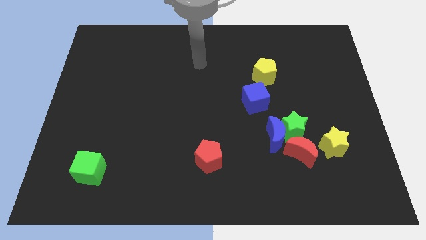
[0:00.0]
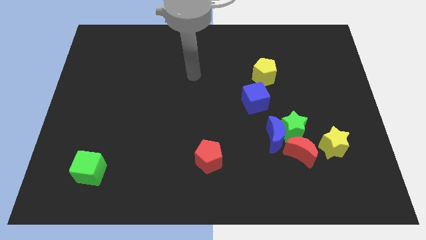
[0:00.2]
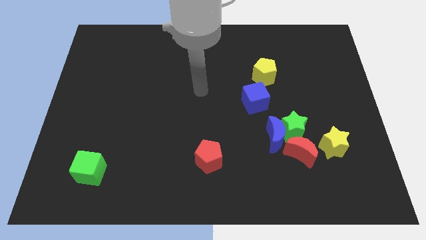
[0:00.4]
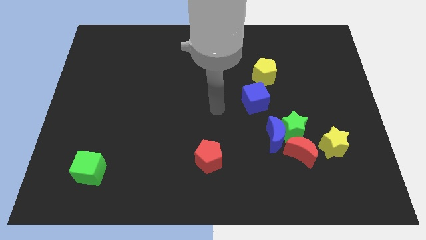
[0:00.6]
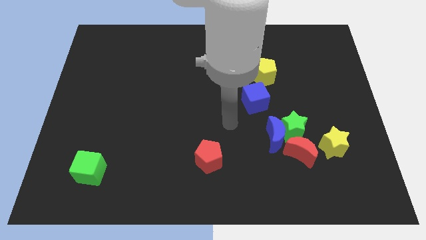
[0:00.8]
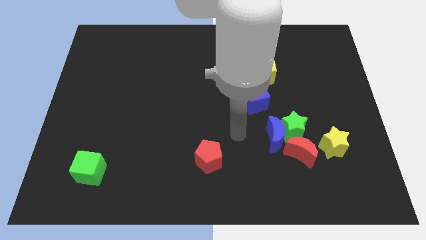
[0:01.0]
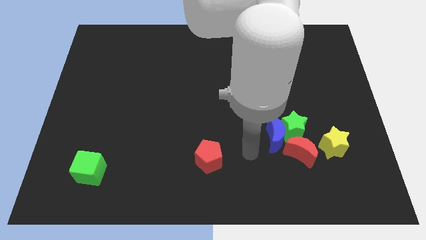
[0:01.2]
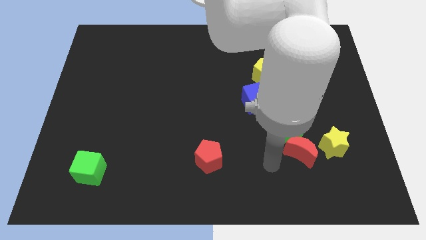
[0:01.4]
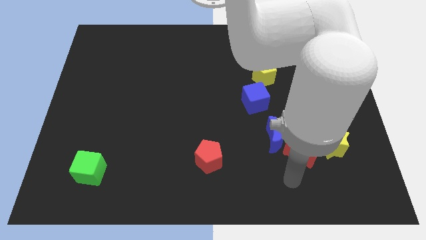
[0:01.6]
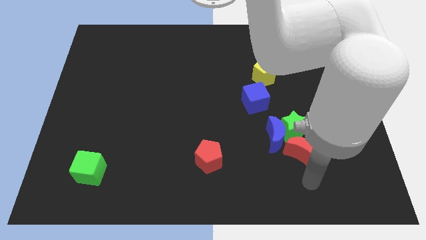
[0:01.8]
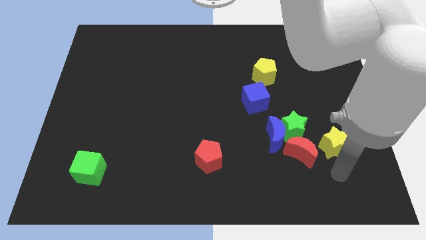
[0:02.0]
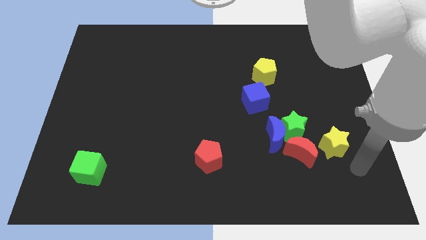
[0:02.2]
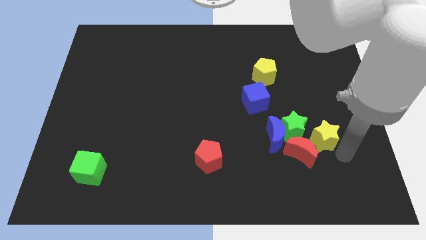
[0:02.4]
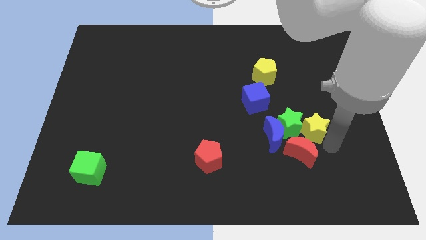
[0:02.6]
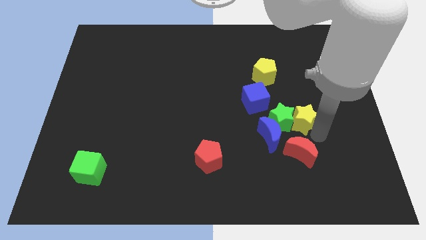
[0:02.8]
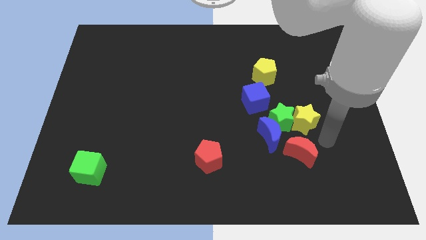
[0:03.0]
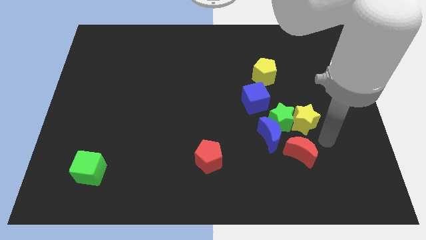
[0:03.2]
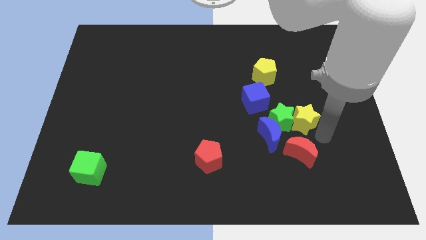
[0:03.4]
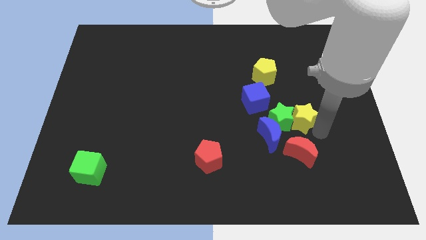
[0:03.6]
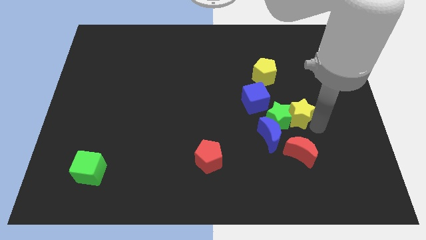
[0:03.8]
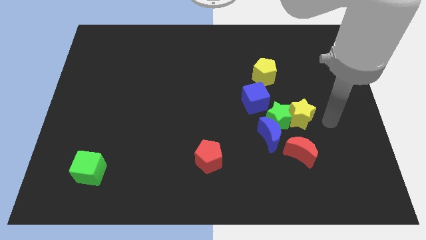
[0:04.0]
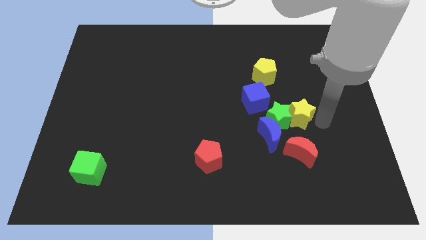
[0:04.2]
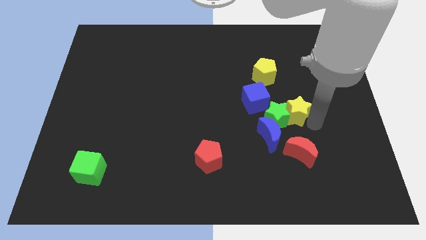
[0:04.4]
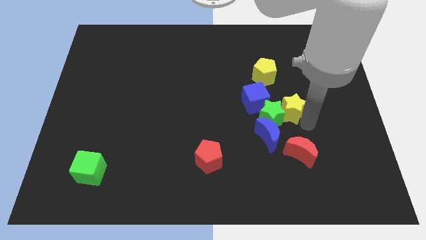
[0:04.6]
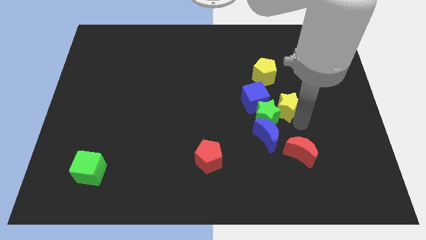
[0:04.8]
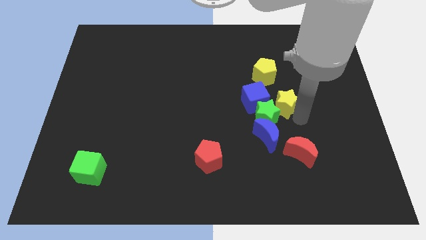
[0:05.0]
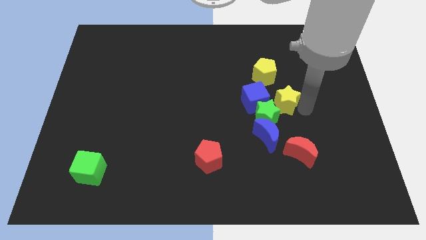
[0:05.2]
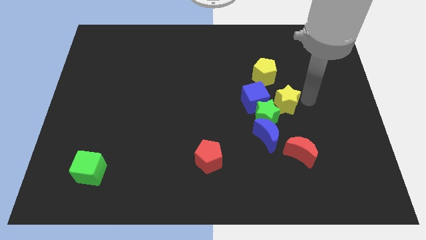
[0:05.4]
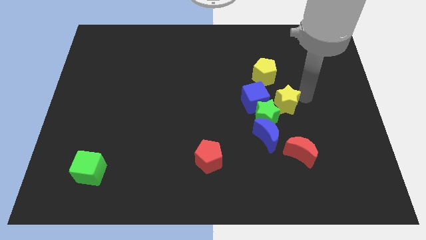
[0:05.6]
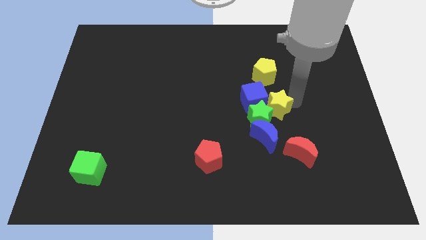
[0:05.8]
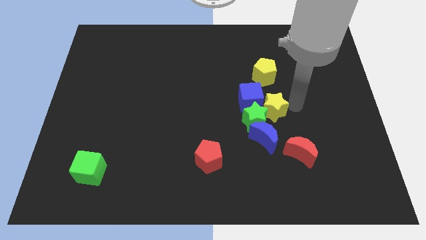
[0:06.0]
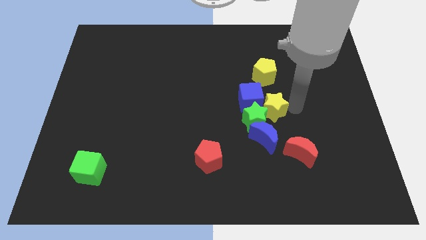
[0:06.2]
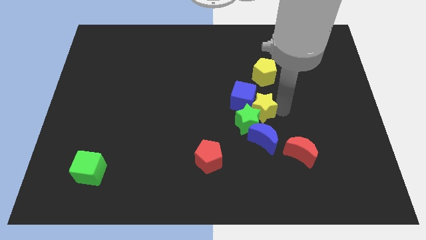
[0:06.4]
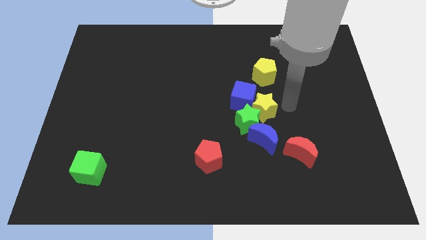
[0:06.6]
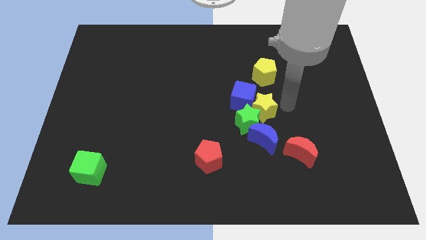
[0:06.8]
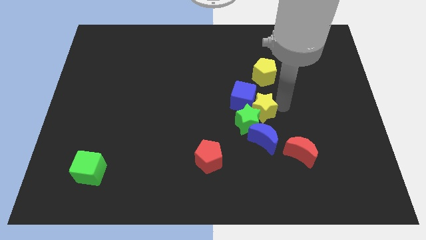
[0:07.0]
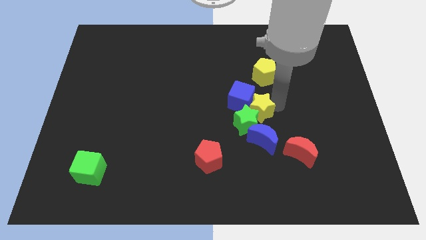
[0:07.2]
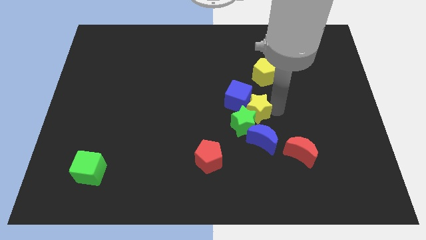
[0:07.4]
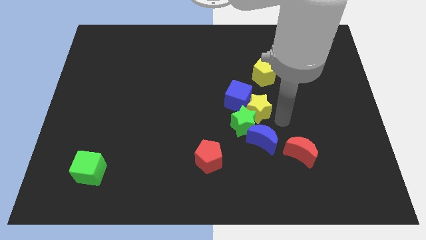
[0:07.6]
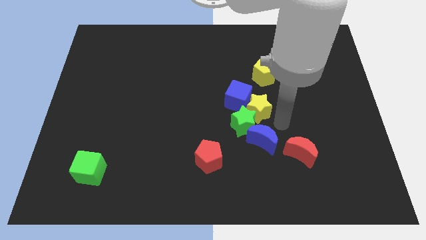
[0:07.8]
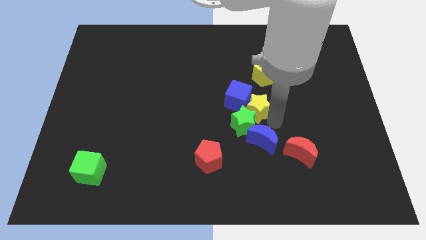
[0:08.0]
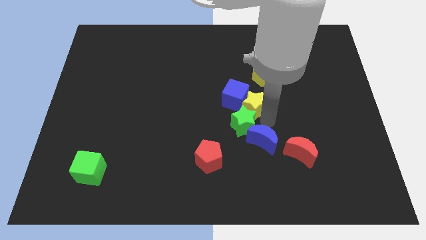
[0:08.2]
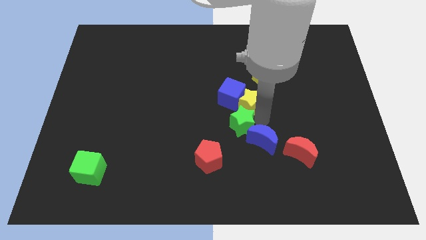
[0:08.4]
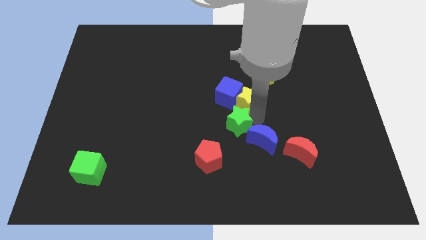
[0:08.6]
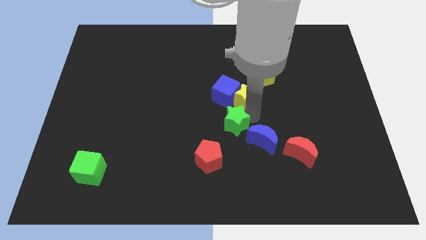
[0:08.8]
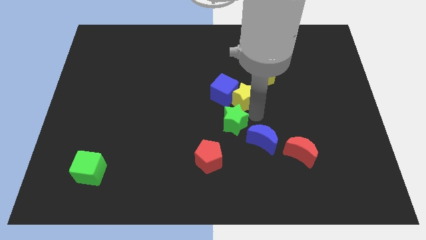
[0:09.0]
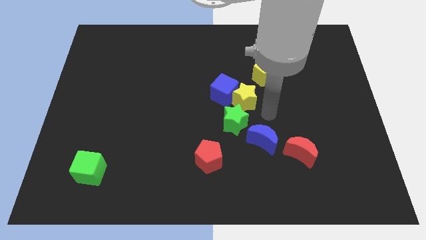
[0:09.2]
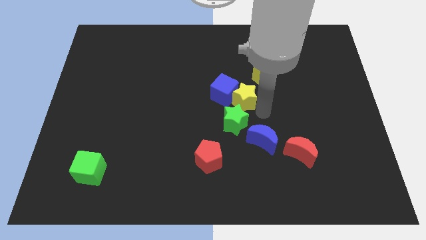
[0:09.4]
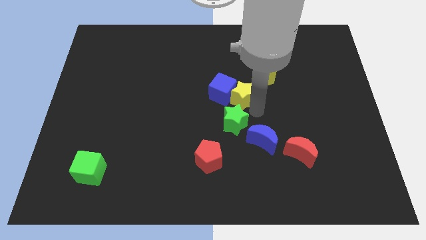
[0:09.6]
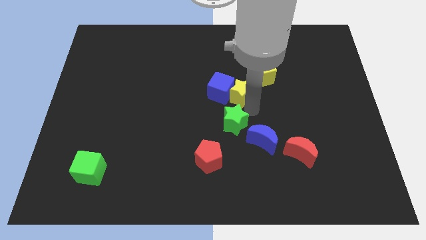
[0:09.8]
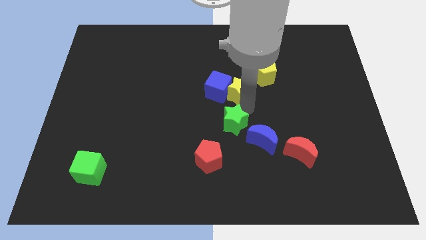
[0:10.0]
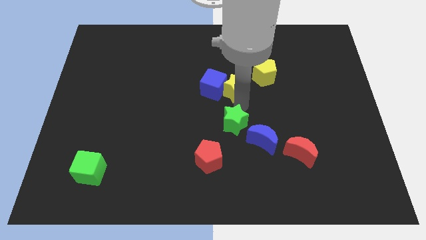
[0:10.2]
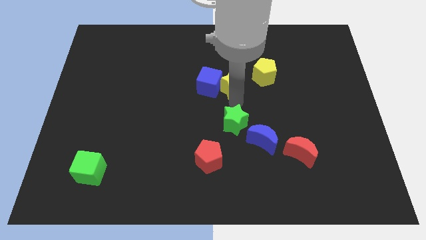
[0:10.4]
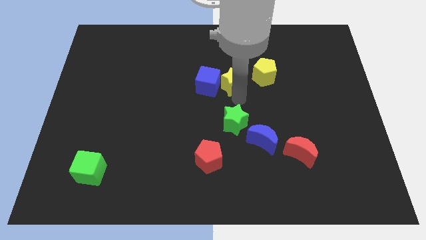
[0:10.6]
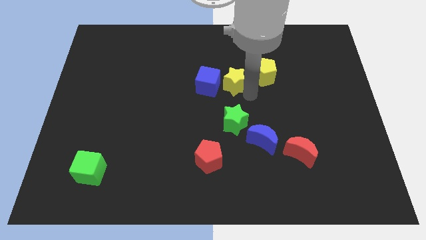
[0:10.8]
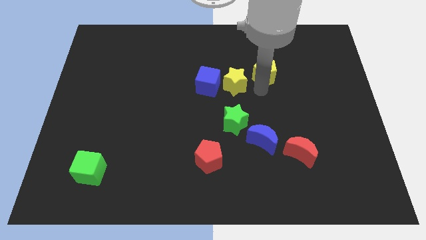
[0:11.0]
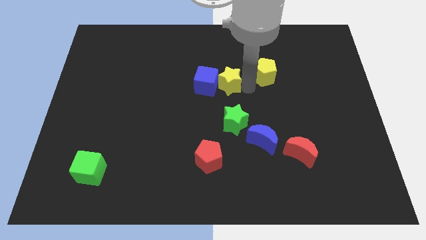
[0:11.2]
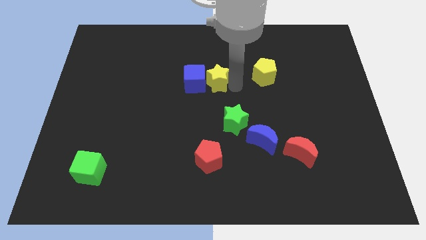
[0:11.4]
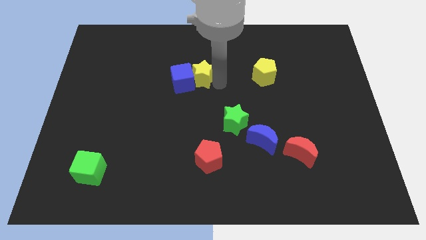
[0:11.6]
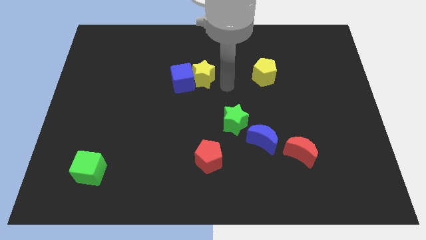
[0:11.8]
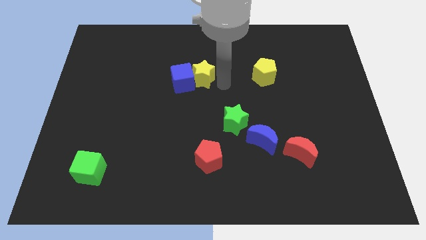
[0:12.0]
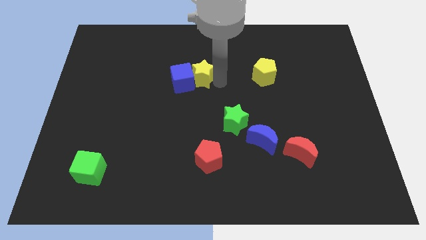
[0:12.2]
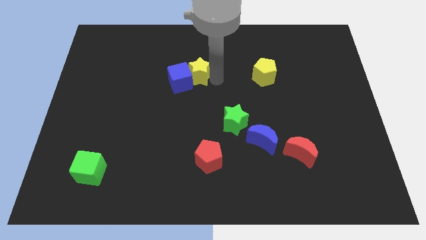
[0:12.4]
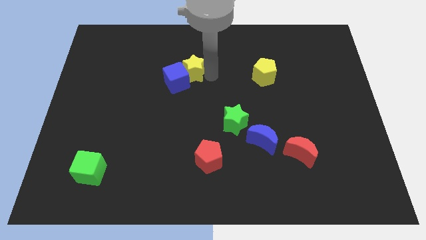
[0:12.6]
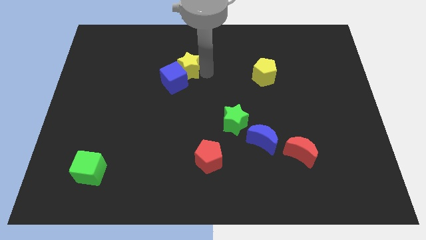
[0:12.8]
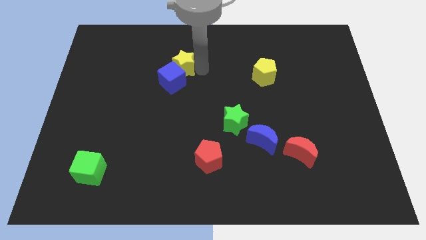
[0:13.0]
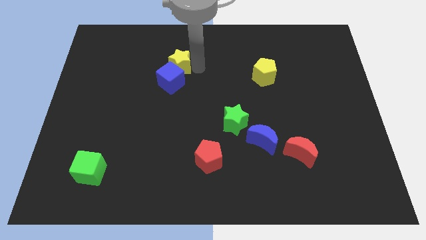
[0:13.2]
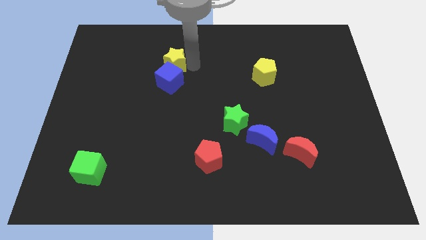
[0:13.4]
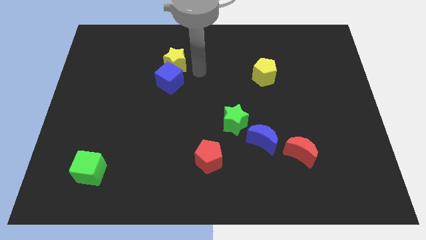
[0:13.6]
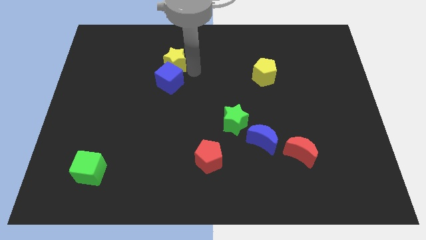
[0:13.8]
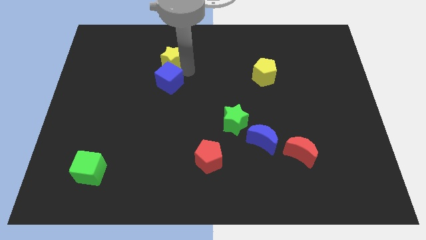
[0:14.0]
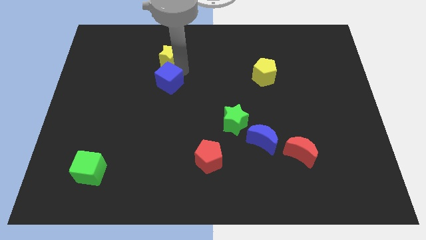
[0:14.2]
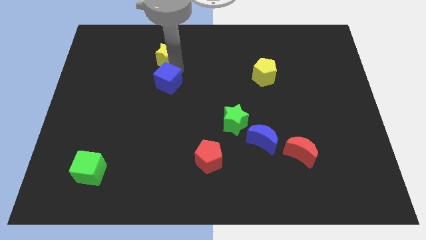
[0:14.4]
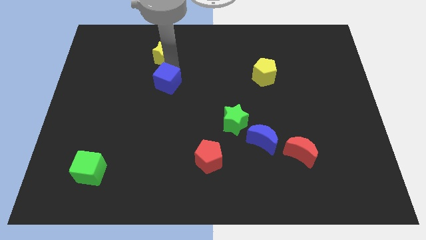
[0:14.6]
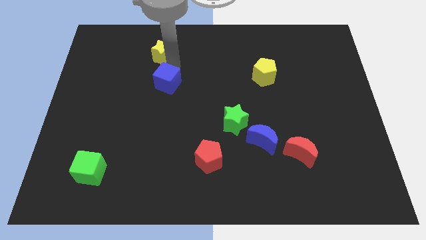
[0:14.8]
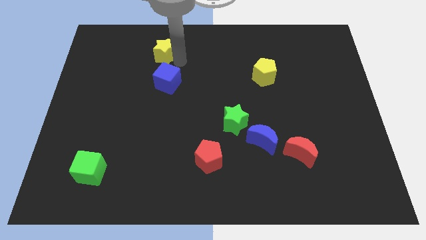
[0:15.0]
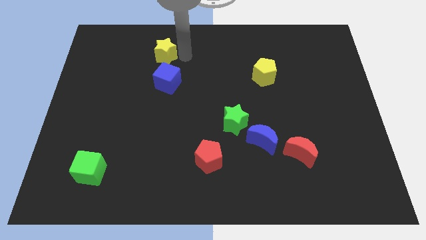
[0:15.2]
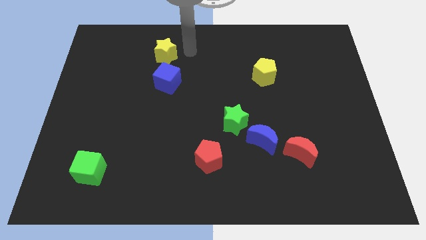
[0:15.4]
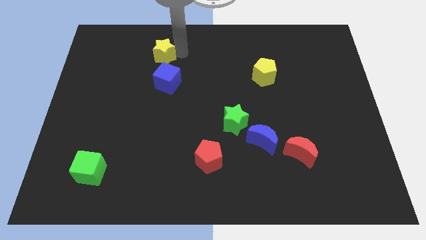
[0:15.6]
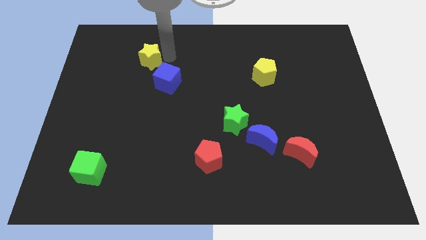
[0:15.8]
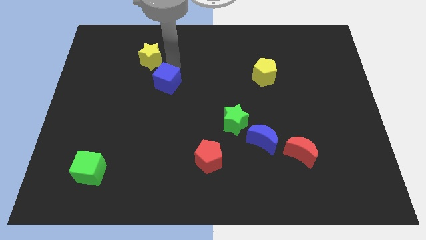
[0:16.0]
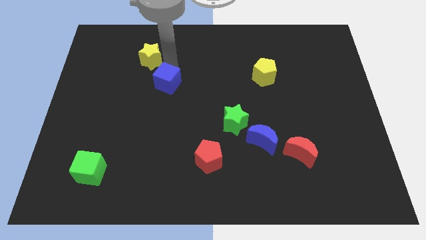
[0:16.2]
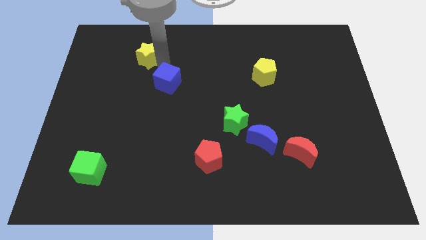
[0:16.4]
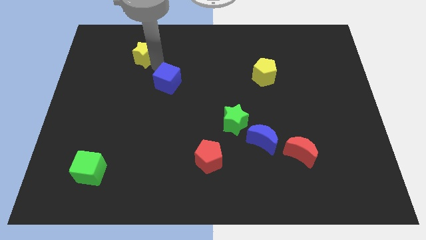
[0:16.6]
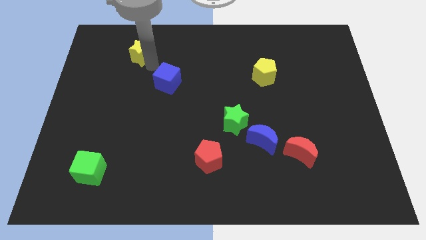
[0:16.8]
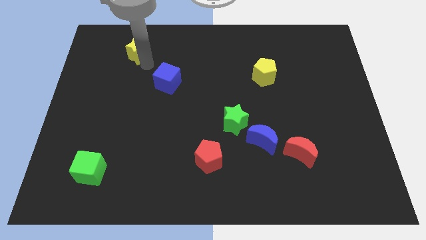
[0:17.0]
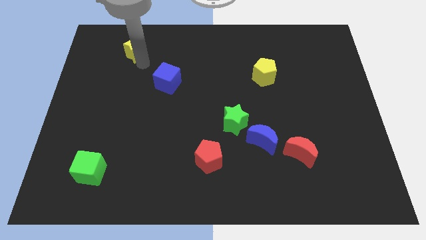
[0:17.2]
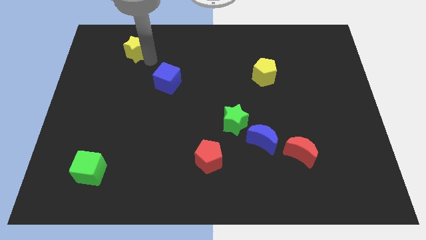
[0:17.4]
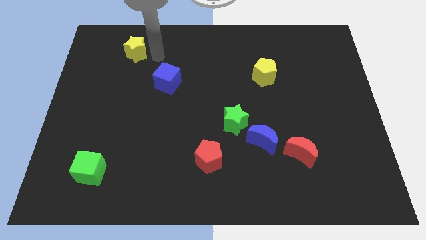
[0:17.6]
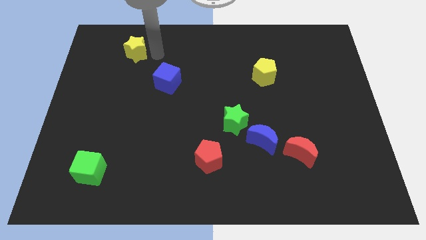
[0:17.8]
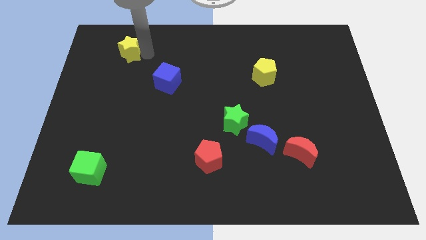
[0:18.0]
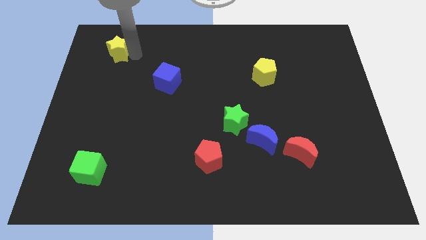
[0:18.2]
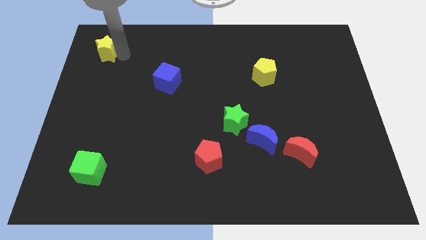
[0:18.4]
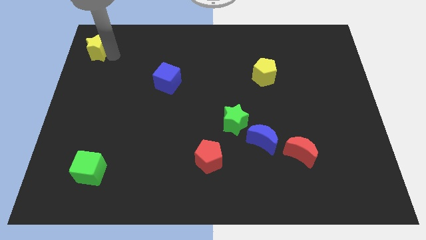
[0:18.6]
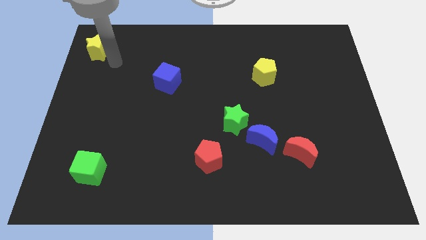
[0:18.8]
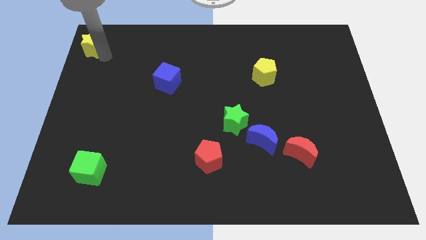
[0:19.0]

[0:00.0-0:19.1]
slide the yellow star to the upper left corner
